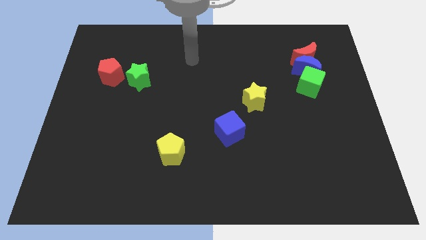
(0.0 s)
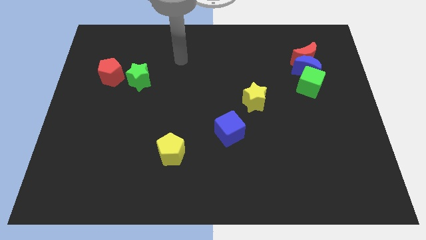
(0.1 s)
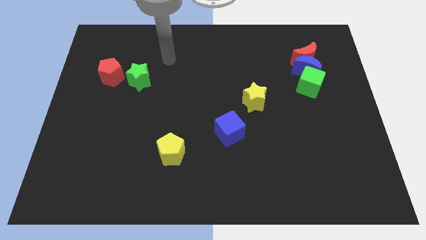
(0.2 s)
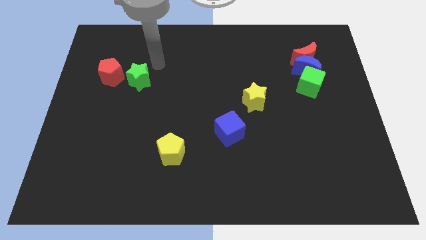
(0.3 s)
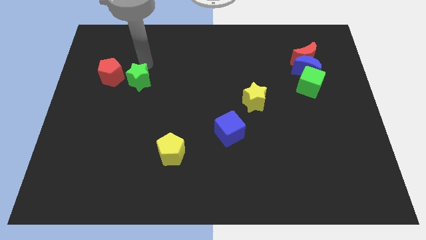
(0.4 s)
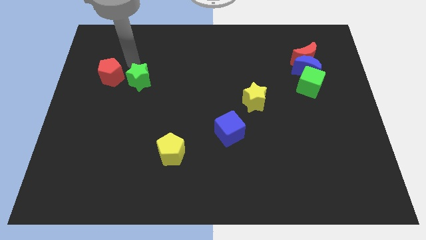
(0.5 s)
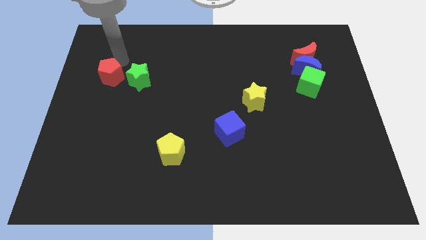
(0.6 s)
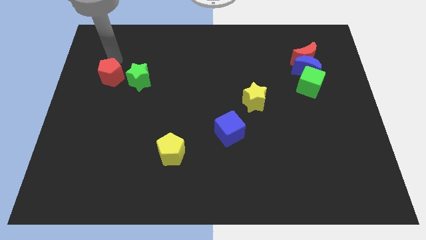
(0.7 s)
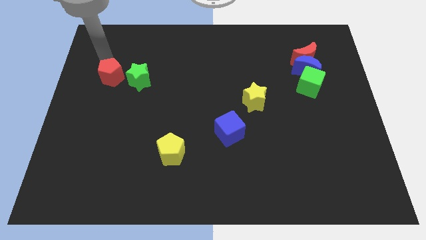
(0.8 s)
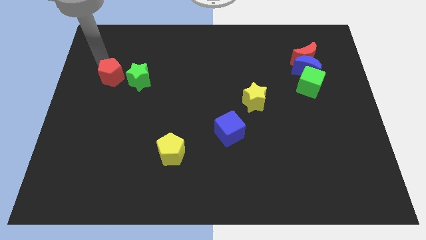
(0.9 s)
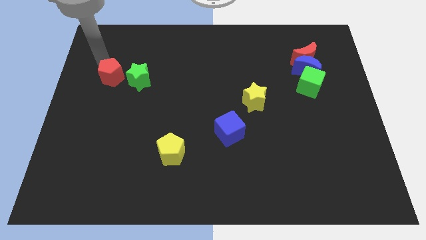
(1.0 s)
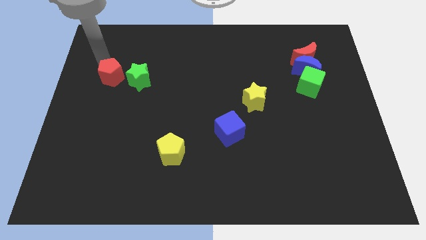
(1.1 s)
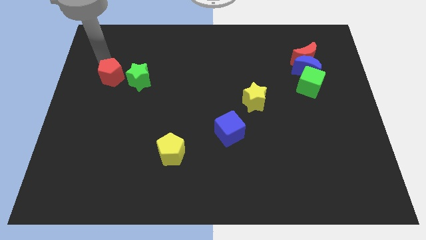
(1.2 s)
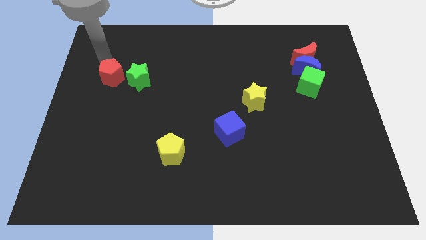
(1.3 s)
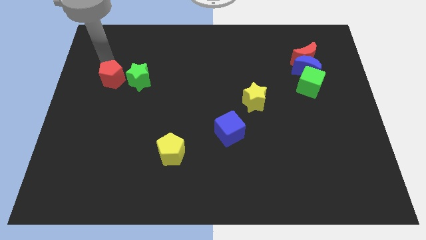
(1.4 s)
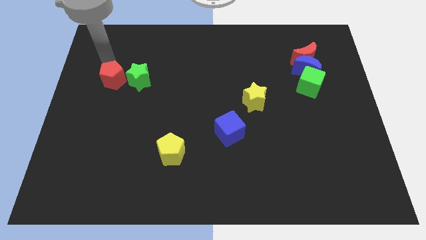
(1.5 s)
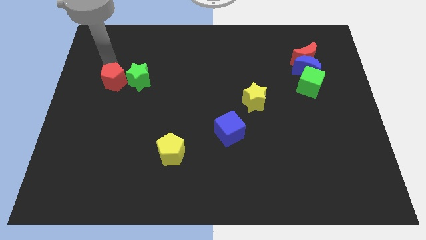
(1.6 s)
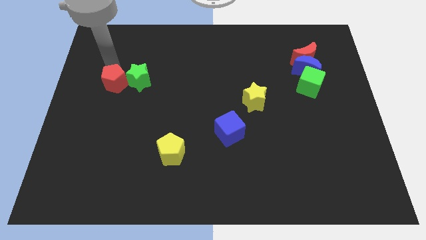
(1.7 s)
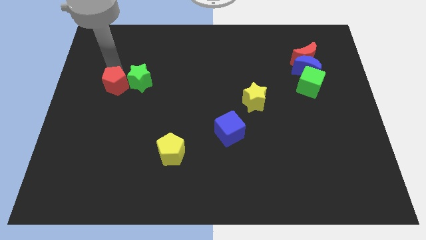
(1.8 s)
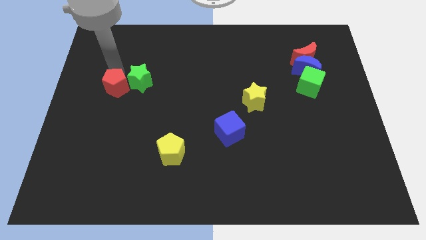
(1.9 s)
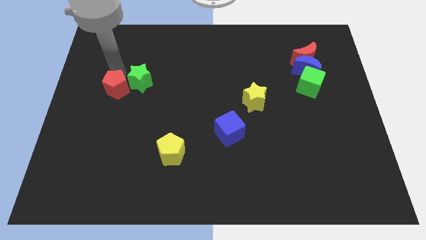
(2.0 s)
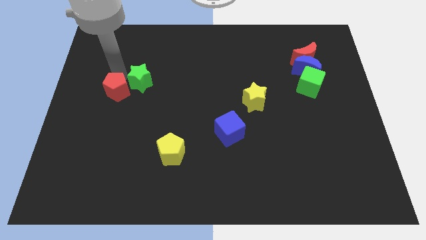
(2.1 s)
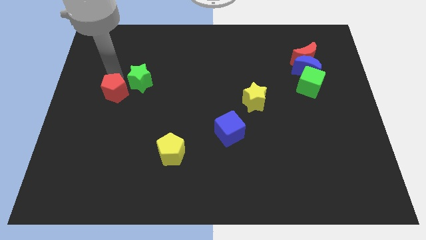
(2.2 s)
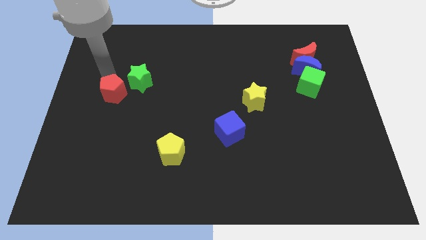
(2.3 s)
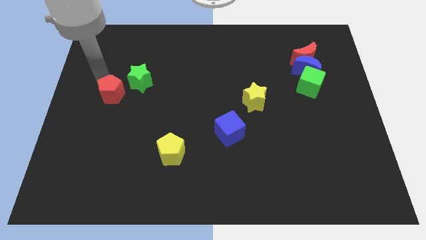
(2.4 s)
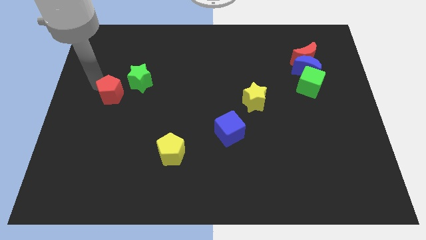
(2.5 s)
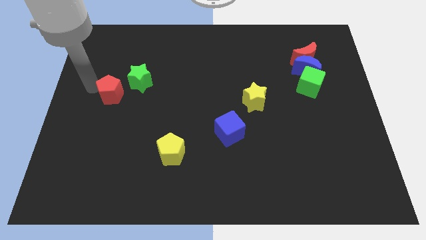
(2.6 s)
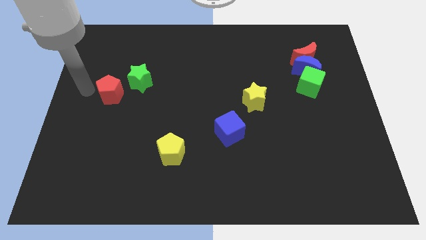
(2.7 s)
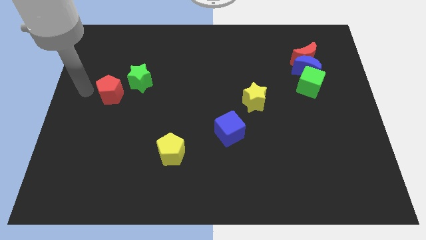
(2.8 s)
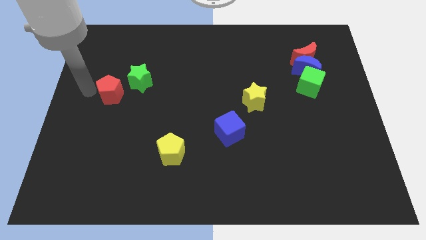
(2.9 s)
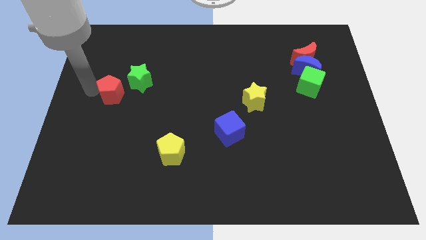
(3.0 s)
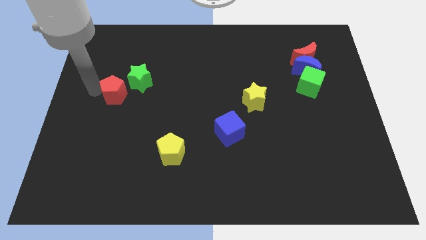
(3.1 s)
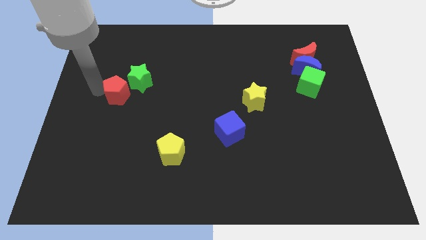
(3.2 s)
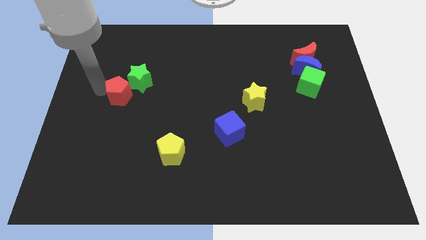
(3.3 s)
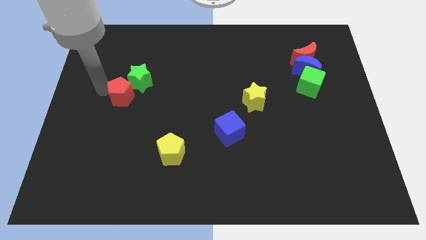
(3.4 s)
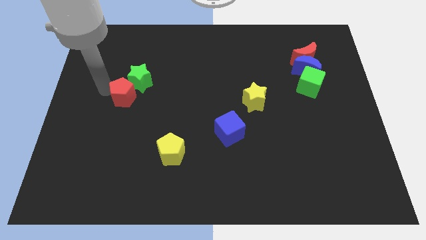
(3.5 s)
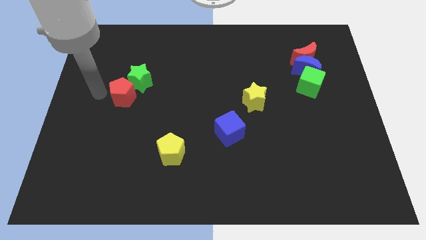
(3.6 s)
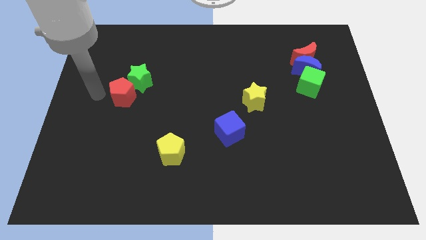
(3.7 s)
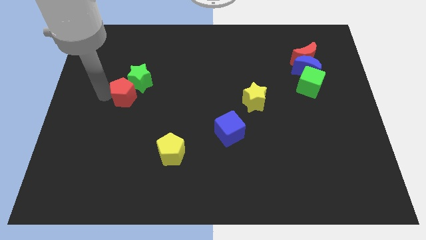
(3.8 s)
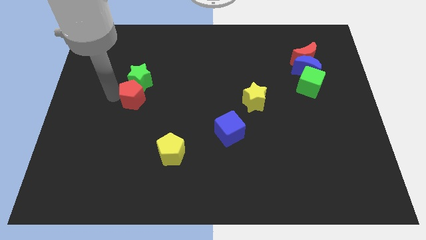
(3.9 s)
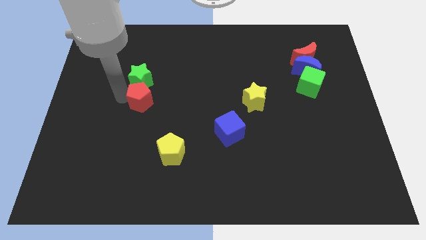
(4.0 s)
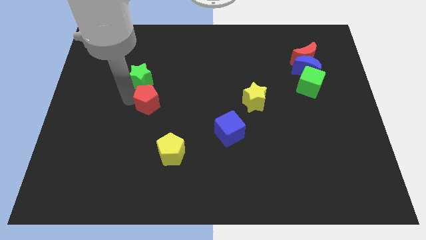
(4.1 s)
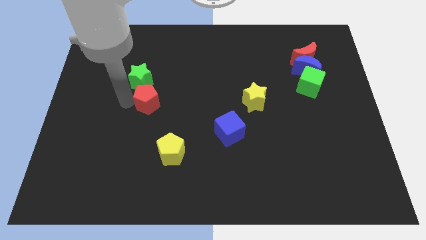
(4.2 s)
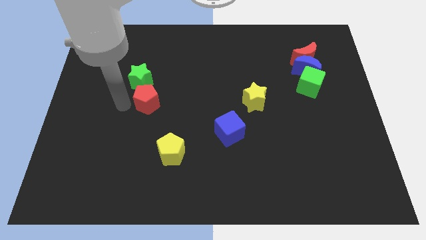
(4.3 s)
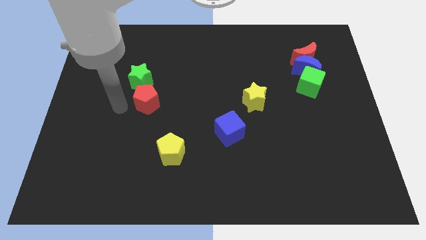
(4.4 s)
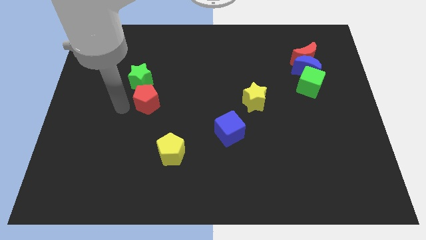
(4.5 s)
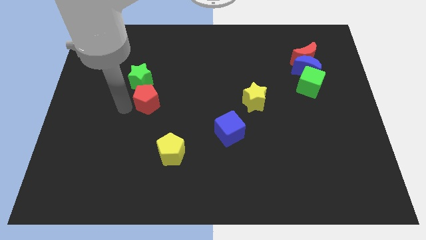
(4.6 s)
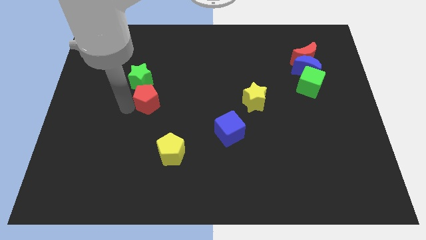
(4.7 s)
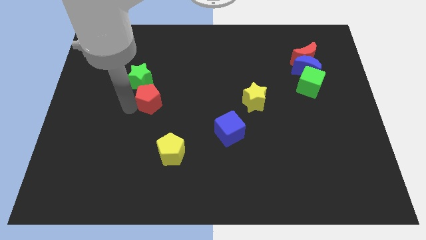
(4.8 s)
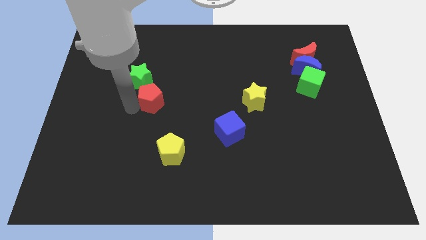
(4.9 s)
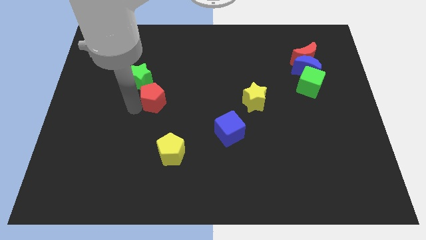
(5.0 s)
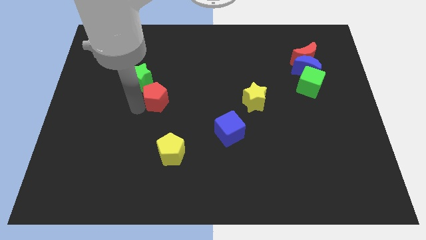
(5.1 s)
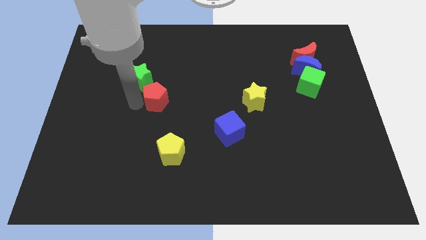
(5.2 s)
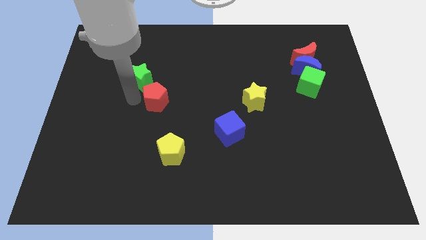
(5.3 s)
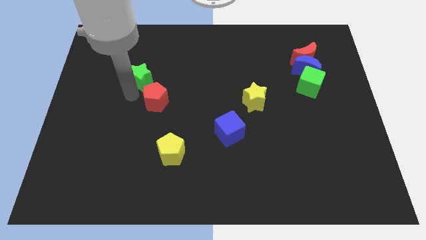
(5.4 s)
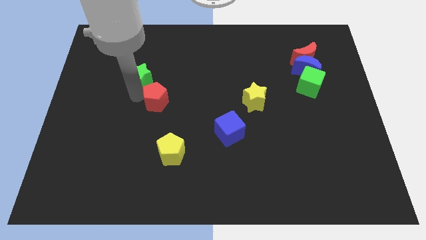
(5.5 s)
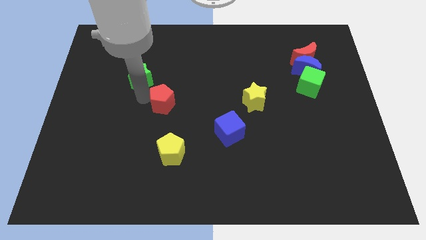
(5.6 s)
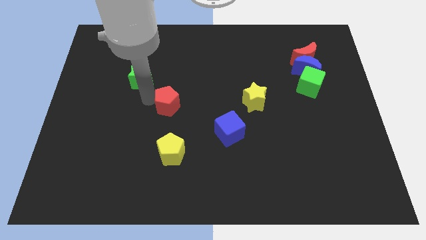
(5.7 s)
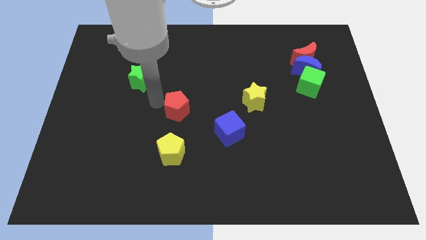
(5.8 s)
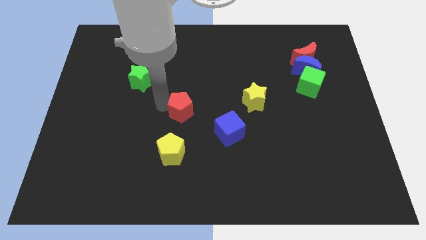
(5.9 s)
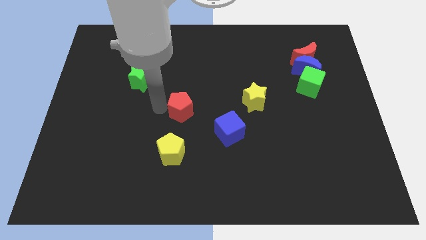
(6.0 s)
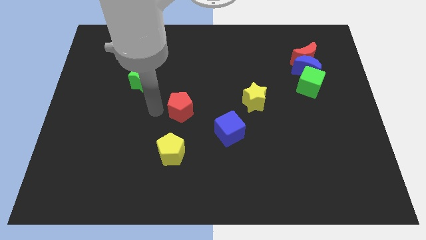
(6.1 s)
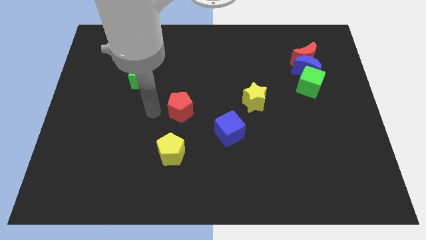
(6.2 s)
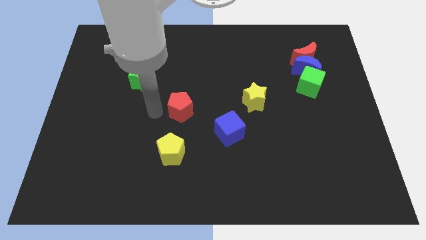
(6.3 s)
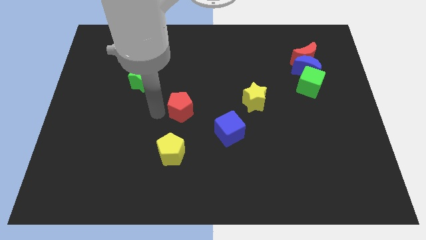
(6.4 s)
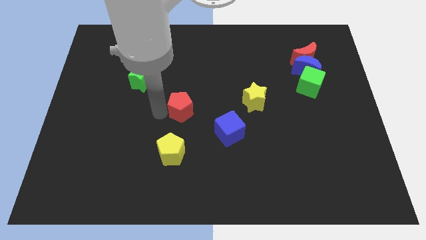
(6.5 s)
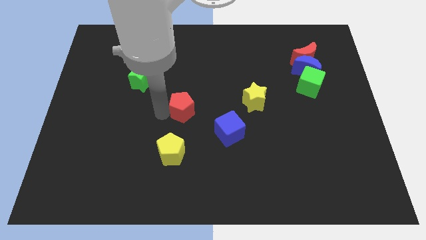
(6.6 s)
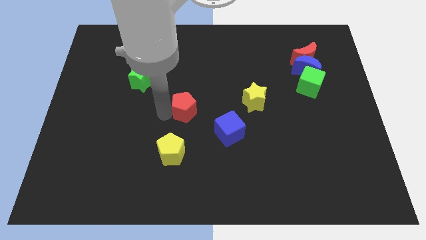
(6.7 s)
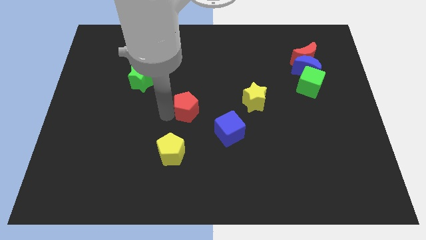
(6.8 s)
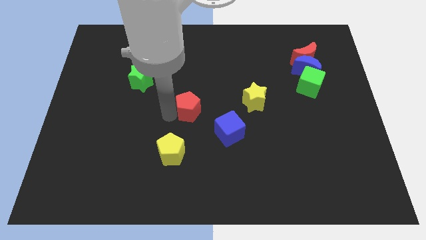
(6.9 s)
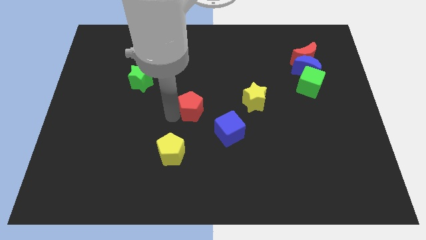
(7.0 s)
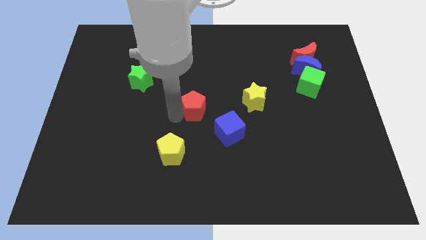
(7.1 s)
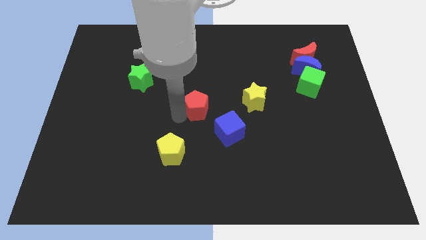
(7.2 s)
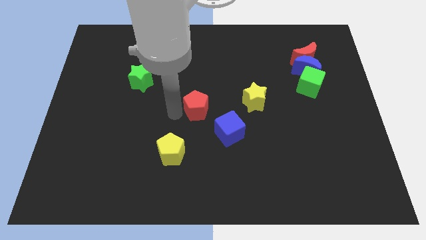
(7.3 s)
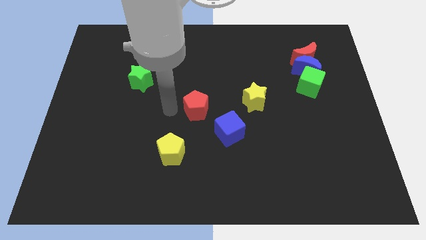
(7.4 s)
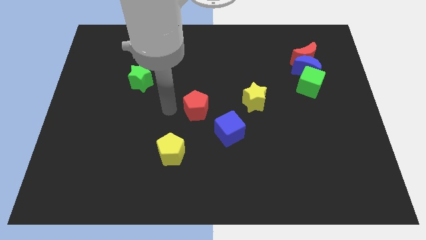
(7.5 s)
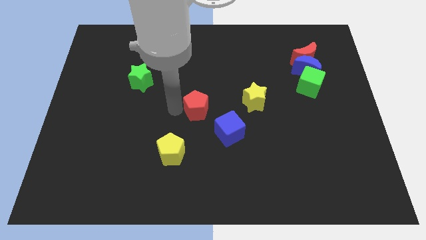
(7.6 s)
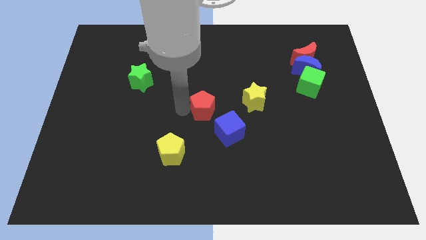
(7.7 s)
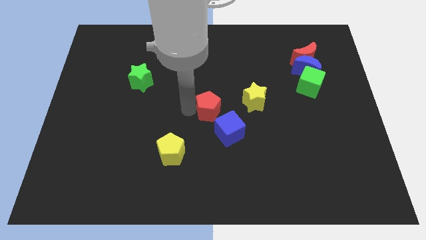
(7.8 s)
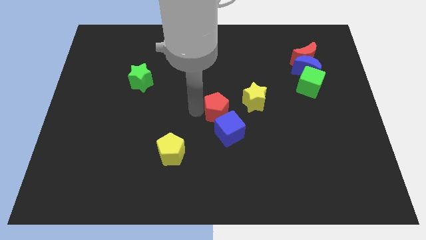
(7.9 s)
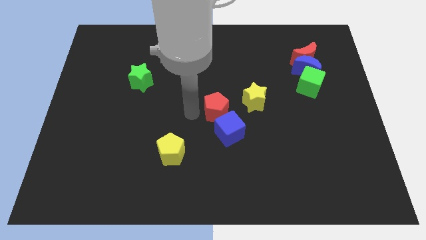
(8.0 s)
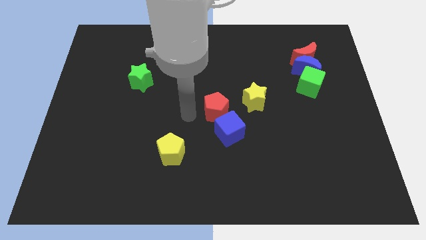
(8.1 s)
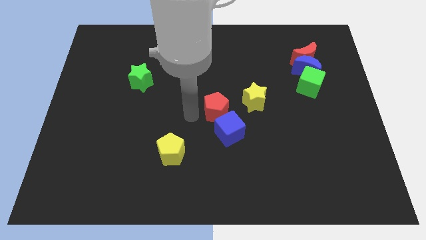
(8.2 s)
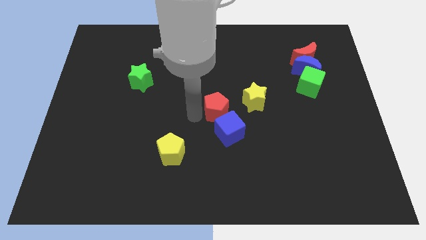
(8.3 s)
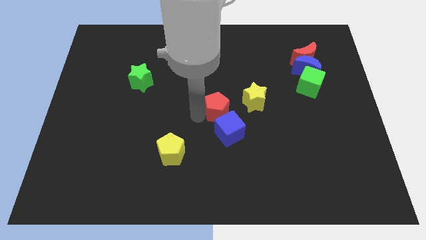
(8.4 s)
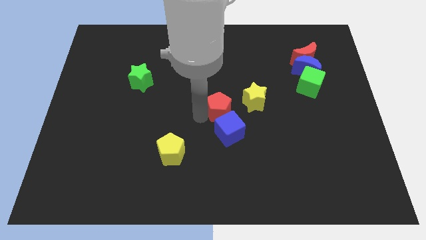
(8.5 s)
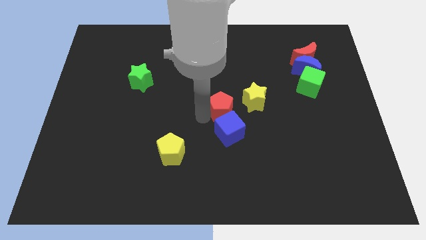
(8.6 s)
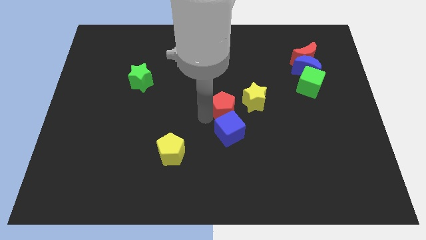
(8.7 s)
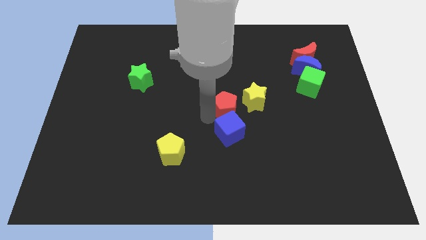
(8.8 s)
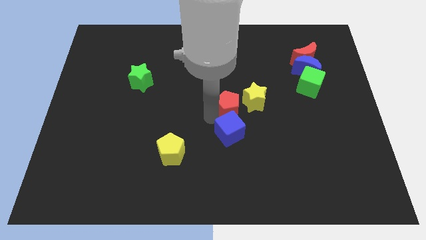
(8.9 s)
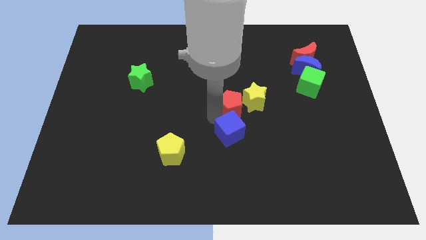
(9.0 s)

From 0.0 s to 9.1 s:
push the red pentagon to the yellow star
